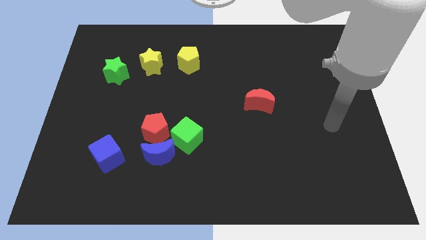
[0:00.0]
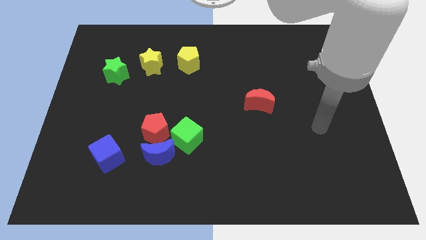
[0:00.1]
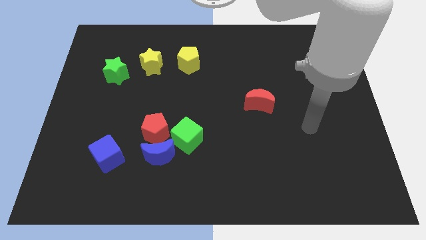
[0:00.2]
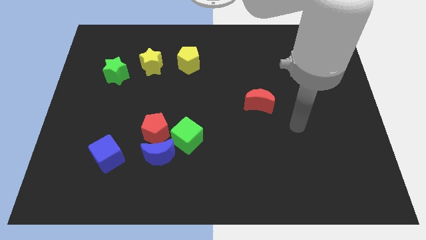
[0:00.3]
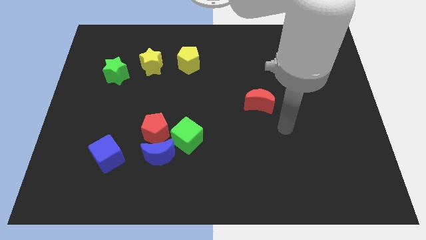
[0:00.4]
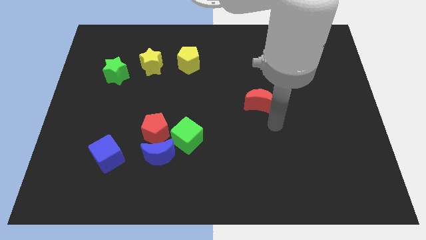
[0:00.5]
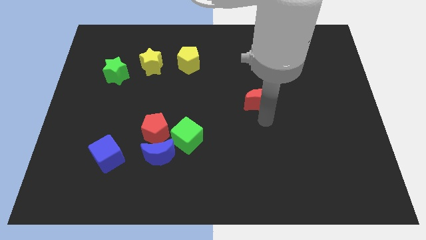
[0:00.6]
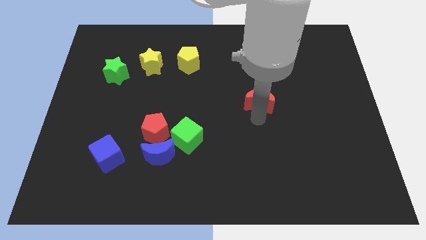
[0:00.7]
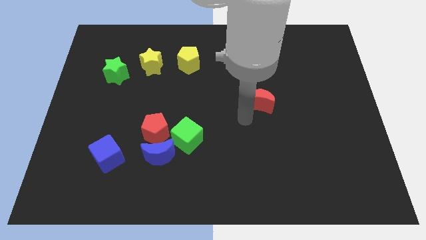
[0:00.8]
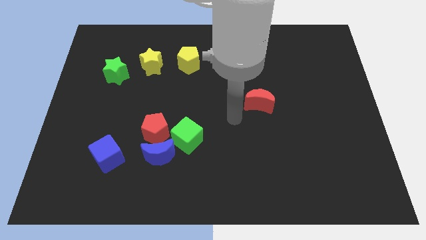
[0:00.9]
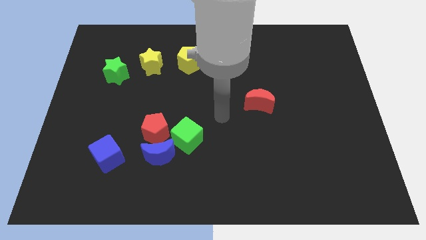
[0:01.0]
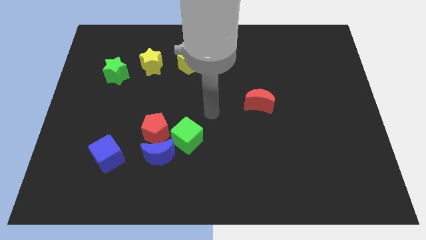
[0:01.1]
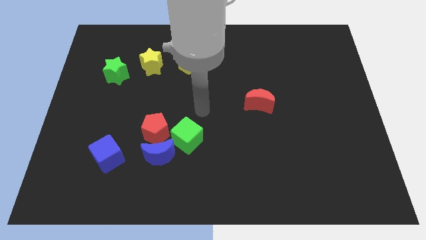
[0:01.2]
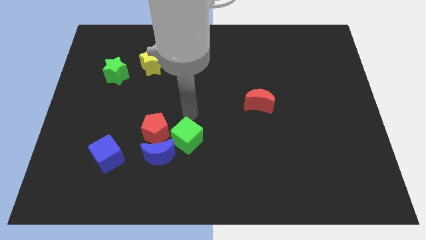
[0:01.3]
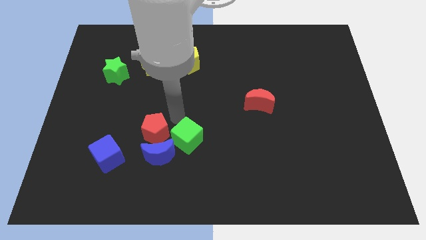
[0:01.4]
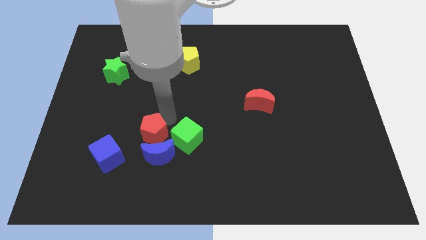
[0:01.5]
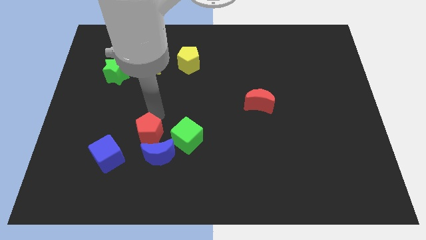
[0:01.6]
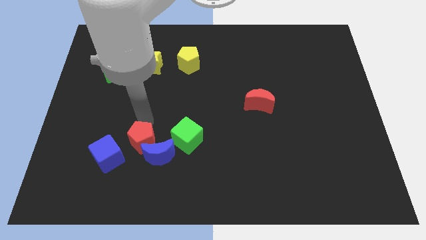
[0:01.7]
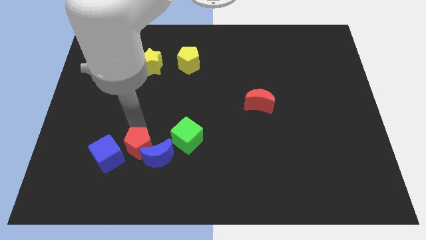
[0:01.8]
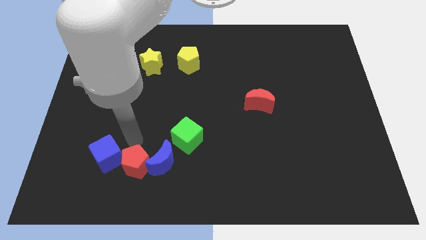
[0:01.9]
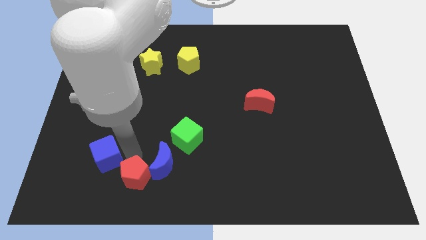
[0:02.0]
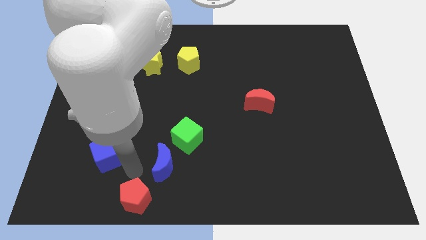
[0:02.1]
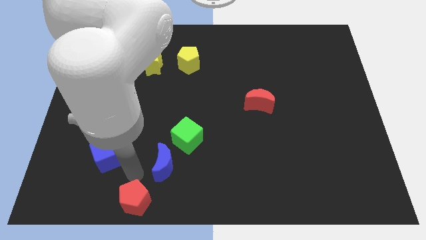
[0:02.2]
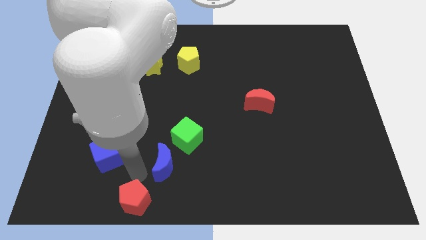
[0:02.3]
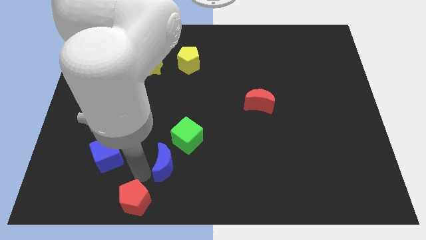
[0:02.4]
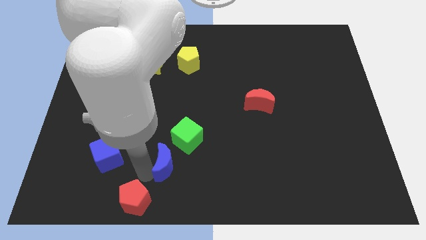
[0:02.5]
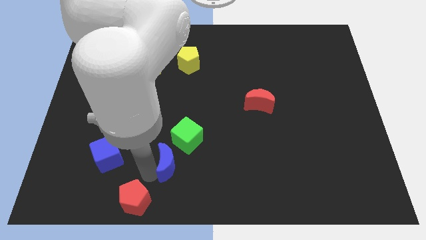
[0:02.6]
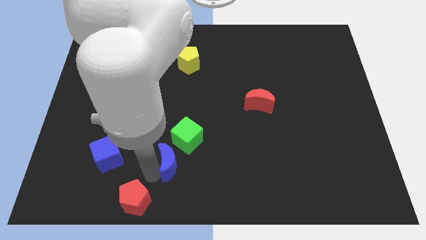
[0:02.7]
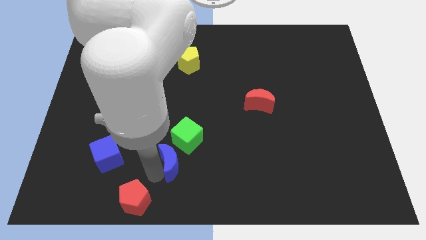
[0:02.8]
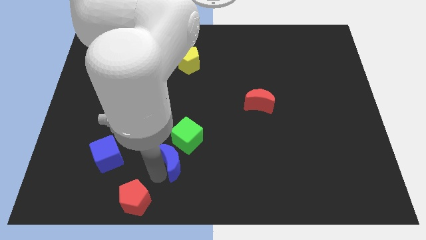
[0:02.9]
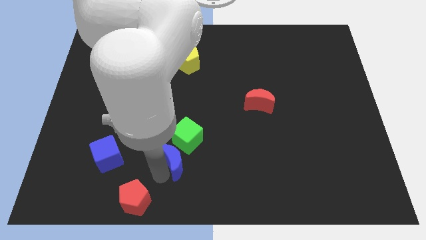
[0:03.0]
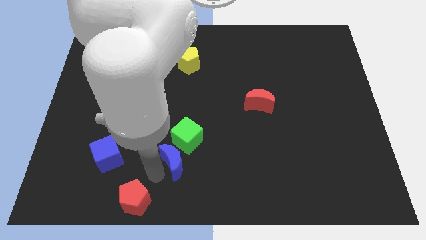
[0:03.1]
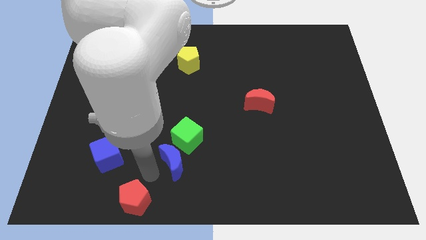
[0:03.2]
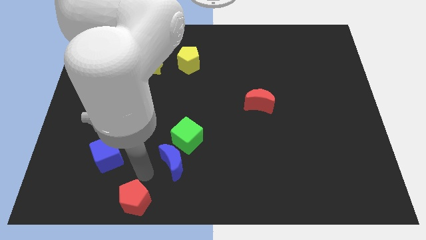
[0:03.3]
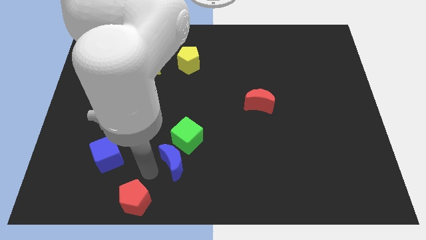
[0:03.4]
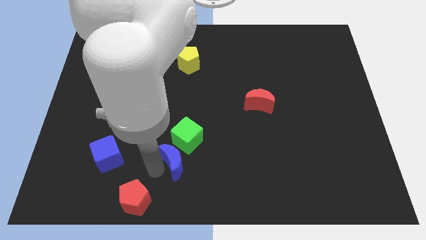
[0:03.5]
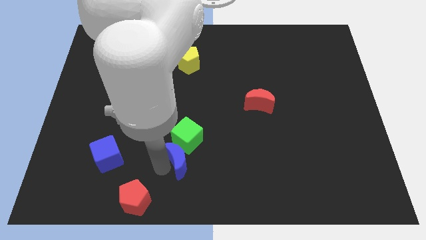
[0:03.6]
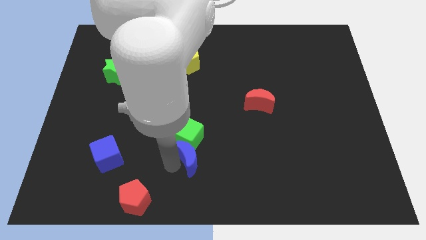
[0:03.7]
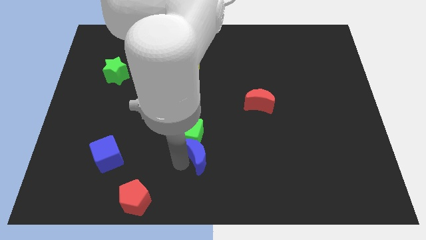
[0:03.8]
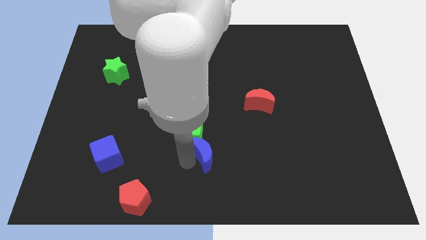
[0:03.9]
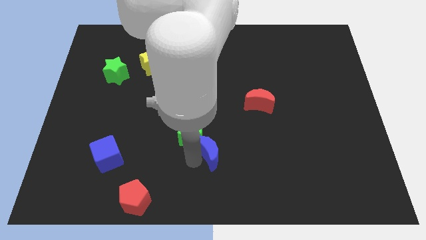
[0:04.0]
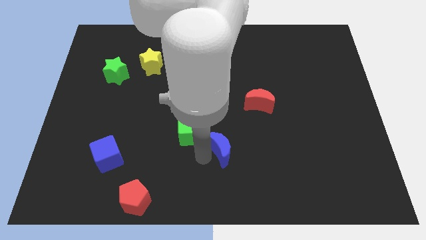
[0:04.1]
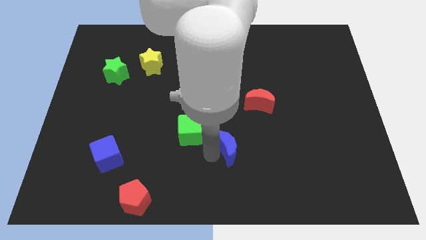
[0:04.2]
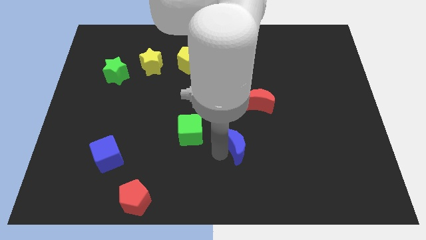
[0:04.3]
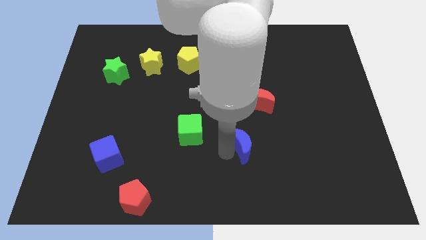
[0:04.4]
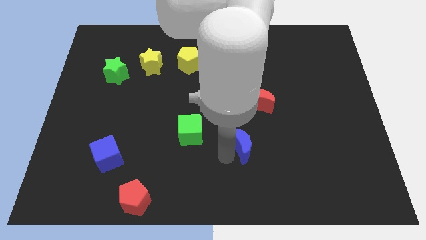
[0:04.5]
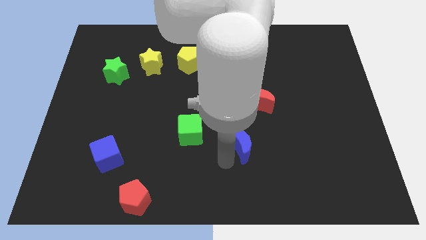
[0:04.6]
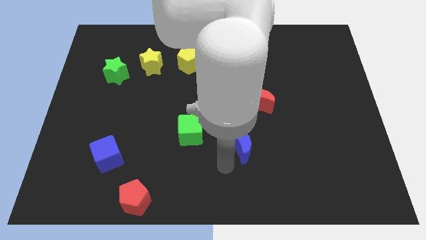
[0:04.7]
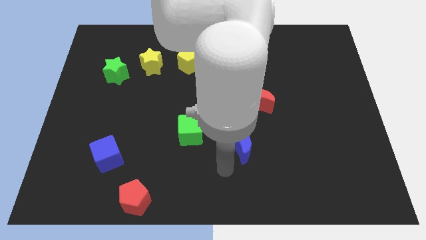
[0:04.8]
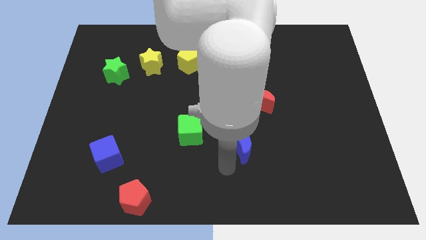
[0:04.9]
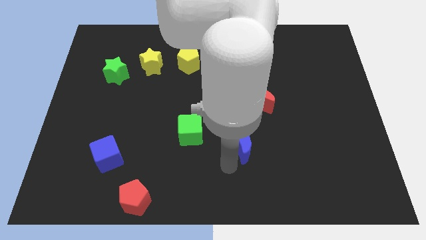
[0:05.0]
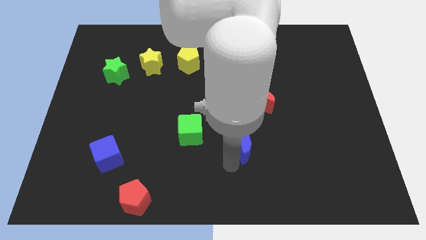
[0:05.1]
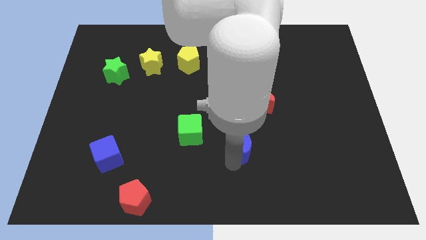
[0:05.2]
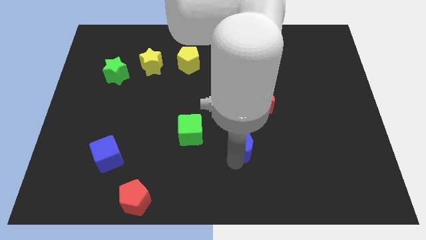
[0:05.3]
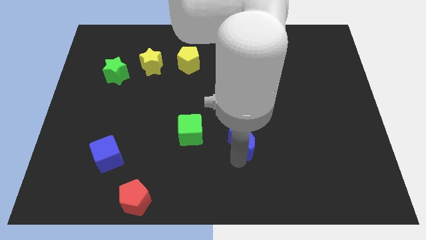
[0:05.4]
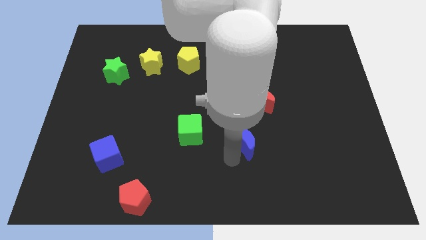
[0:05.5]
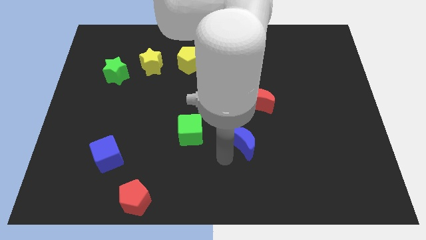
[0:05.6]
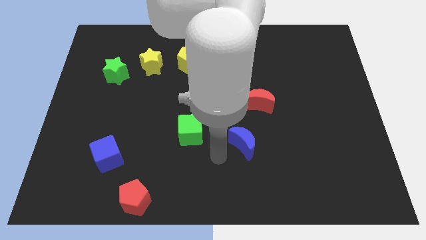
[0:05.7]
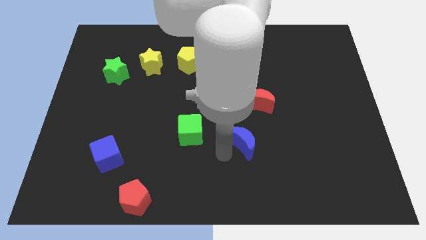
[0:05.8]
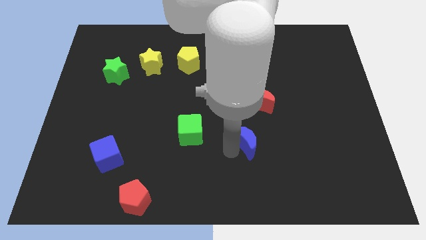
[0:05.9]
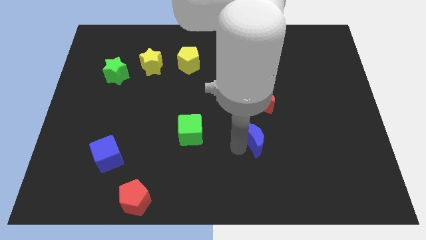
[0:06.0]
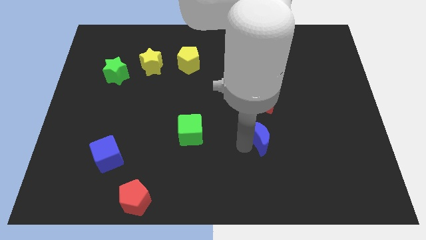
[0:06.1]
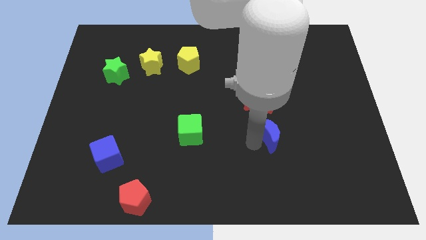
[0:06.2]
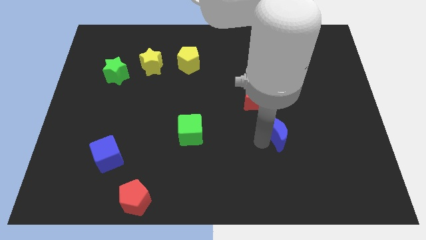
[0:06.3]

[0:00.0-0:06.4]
move the blue moon to the bottom right of the red moon

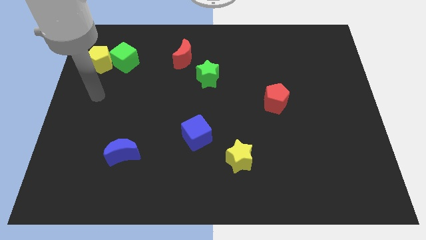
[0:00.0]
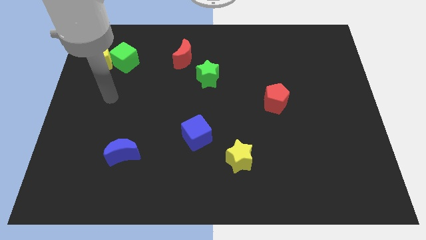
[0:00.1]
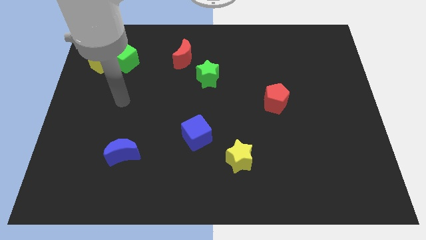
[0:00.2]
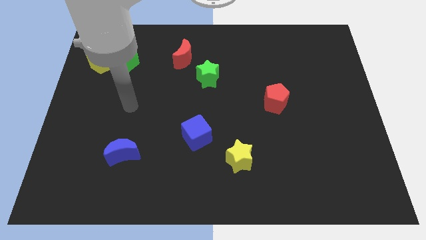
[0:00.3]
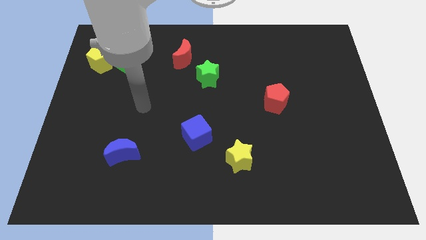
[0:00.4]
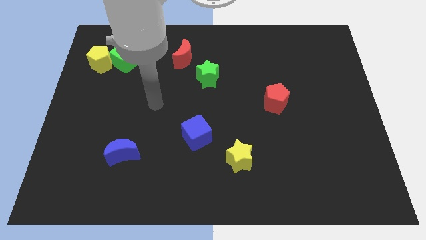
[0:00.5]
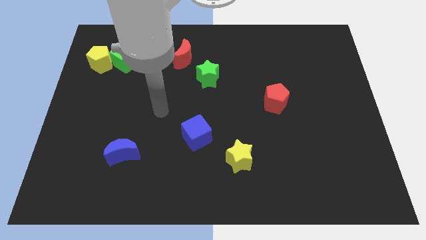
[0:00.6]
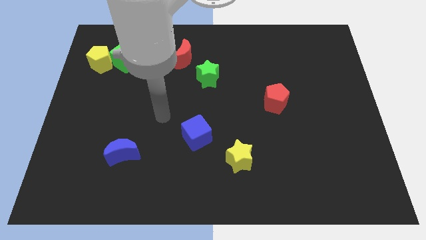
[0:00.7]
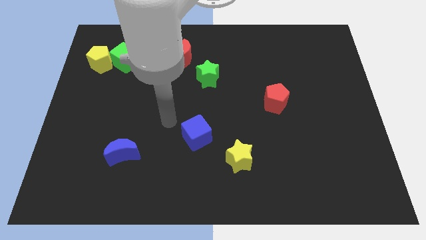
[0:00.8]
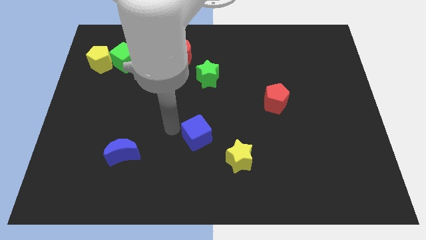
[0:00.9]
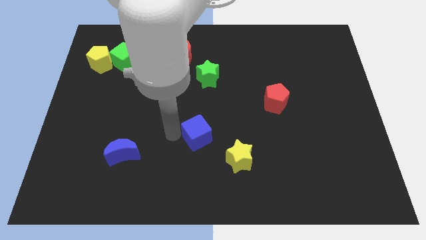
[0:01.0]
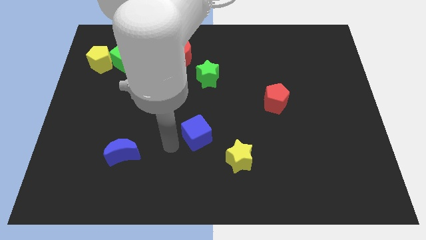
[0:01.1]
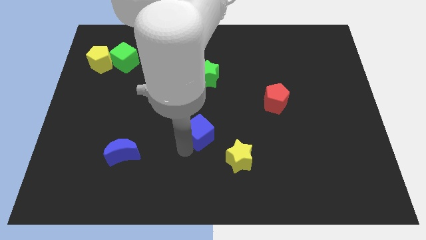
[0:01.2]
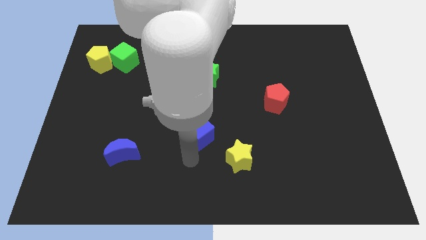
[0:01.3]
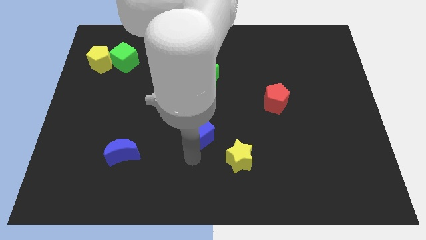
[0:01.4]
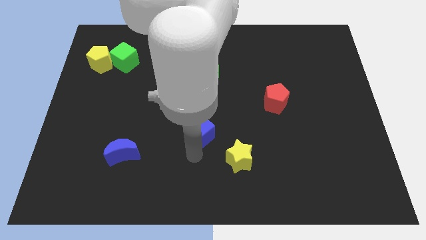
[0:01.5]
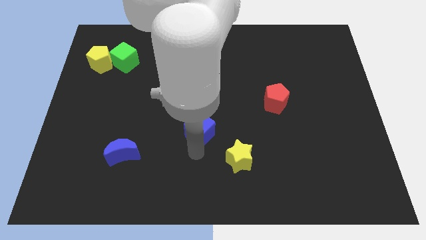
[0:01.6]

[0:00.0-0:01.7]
push the blue cube to the bottom side of the green star

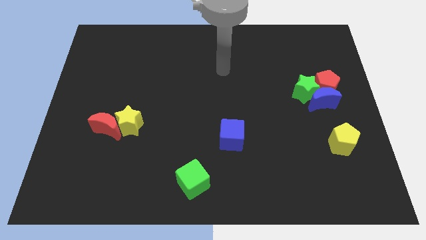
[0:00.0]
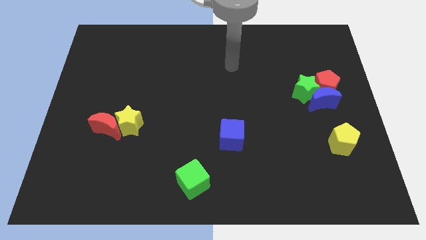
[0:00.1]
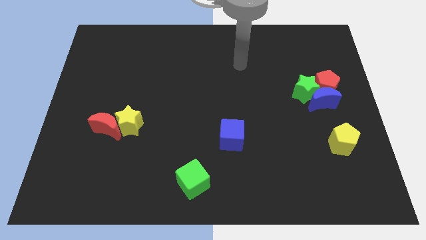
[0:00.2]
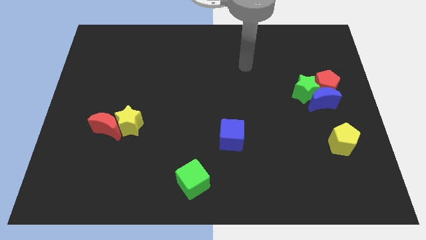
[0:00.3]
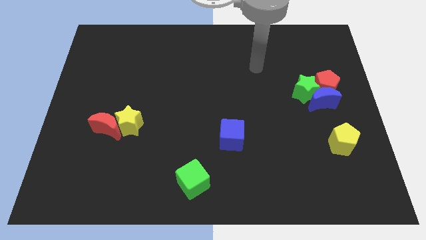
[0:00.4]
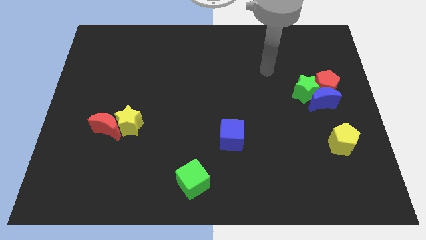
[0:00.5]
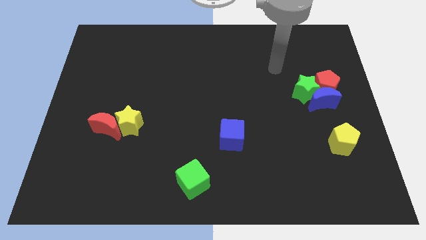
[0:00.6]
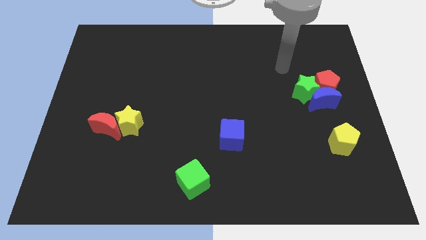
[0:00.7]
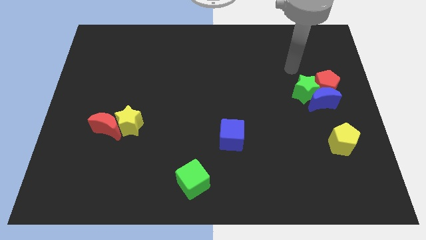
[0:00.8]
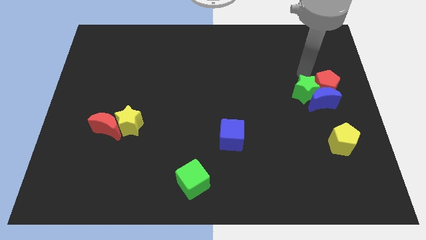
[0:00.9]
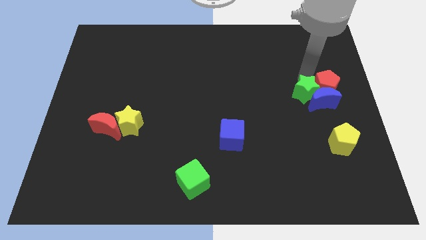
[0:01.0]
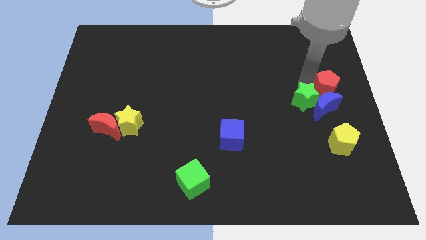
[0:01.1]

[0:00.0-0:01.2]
push the green star diagonally down and to the left of the blue moon
